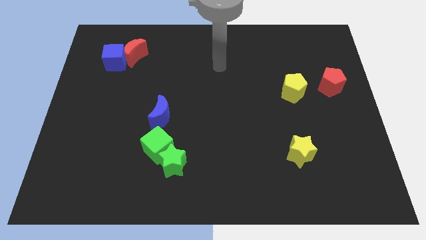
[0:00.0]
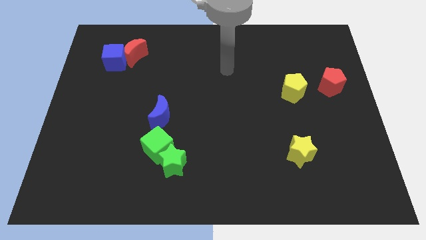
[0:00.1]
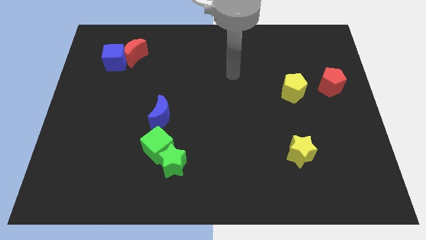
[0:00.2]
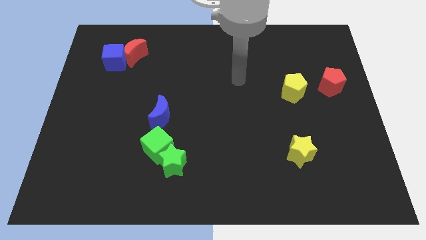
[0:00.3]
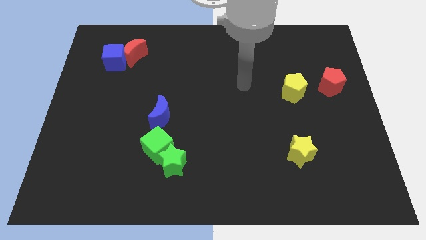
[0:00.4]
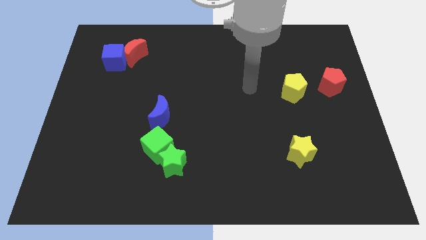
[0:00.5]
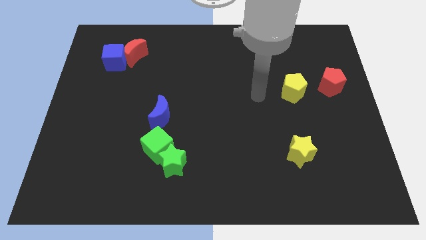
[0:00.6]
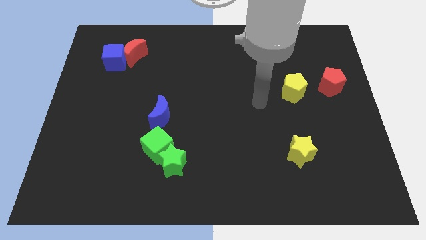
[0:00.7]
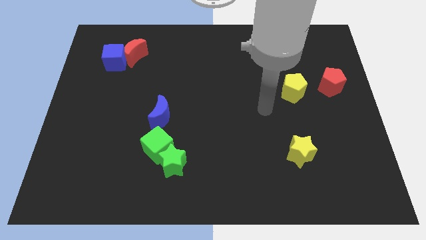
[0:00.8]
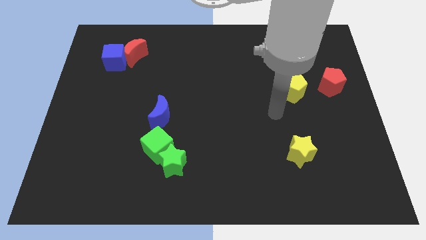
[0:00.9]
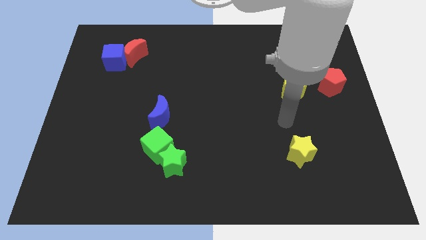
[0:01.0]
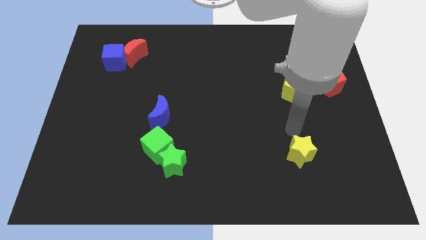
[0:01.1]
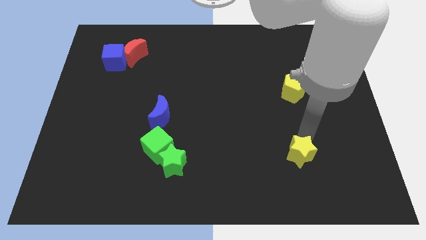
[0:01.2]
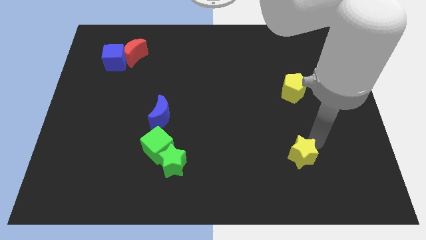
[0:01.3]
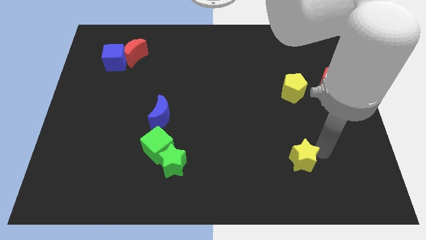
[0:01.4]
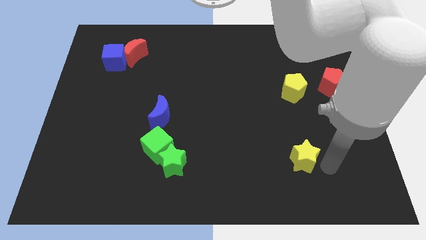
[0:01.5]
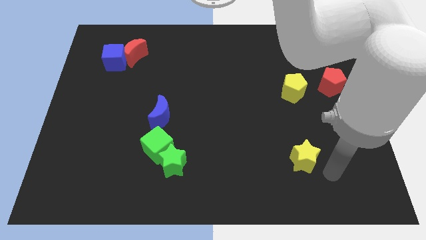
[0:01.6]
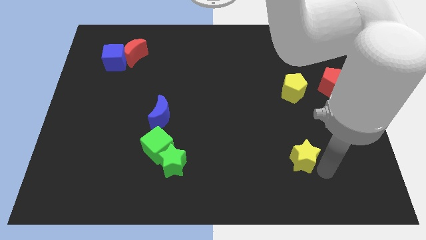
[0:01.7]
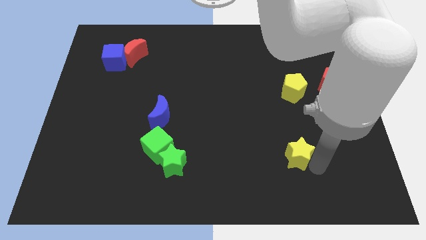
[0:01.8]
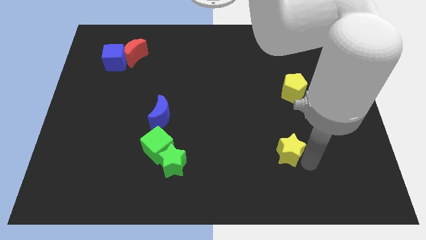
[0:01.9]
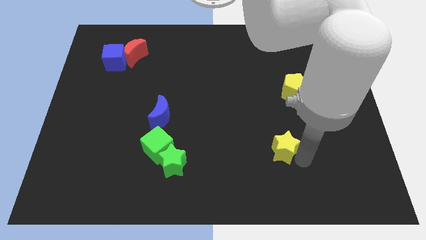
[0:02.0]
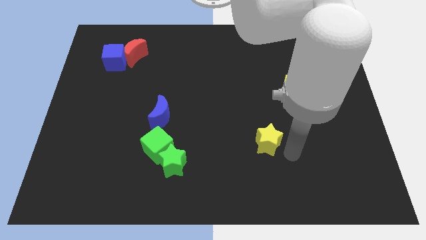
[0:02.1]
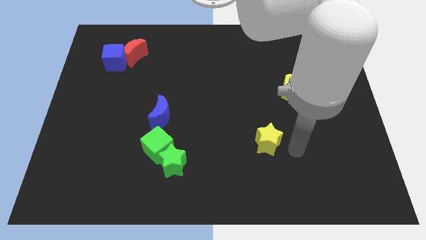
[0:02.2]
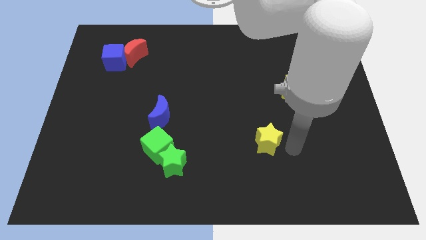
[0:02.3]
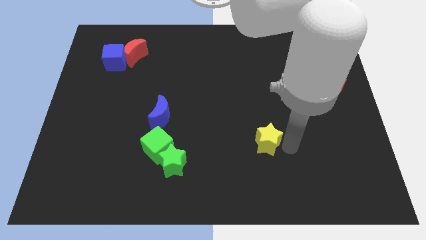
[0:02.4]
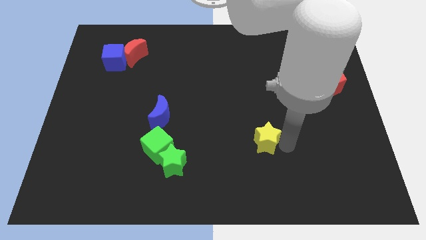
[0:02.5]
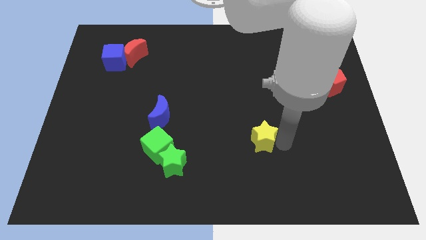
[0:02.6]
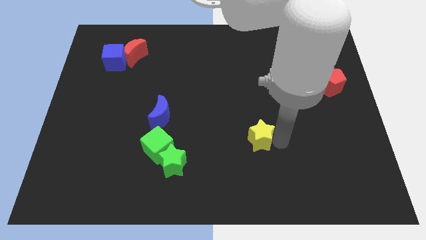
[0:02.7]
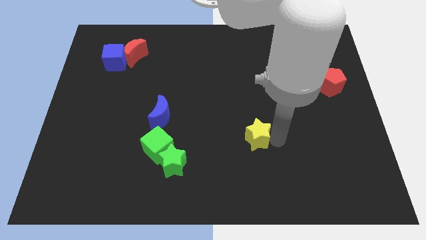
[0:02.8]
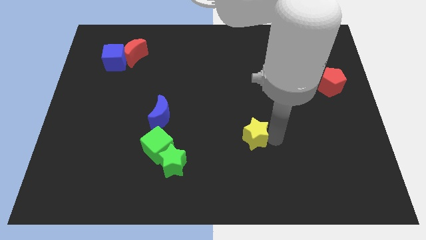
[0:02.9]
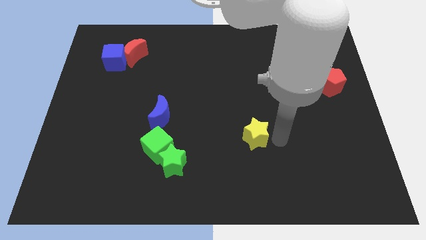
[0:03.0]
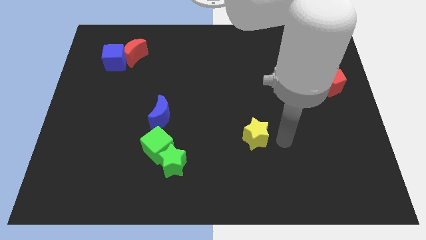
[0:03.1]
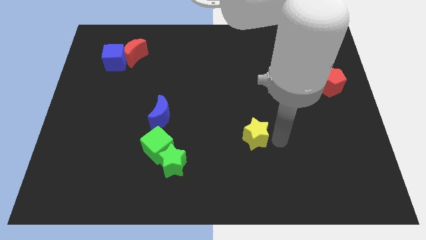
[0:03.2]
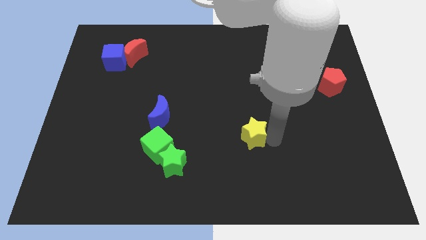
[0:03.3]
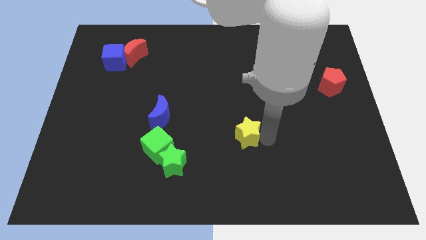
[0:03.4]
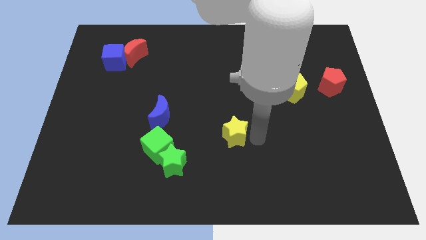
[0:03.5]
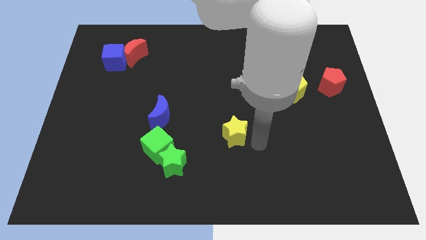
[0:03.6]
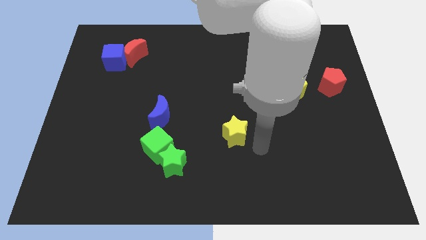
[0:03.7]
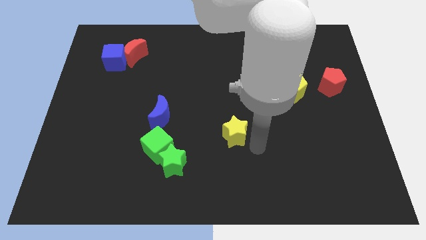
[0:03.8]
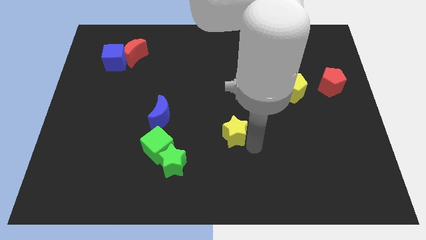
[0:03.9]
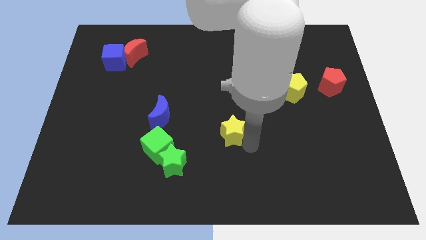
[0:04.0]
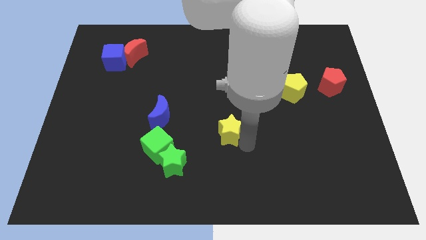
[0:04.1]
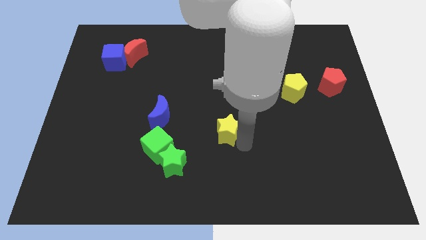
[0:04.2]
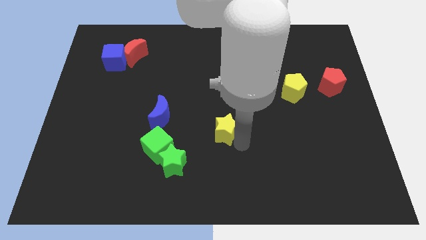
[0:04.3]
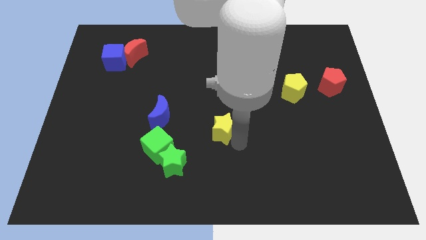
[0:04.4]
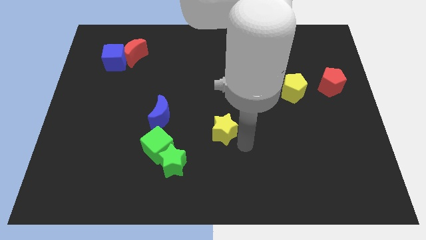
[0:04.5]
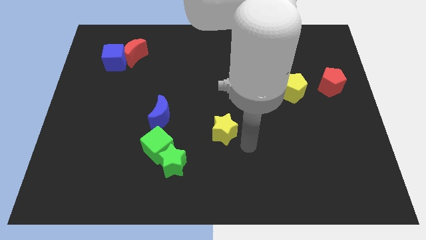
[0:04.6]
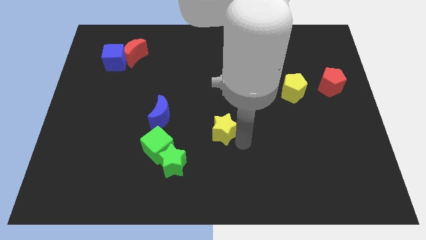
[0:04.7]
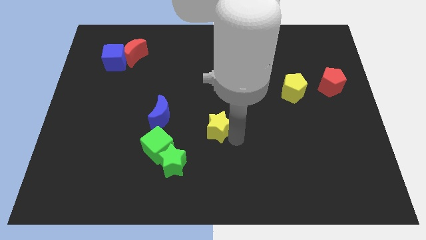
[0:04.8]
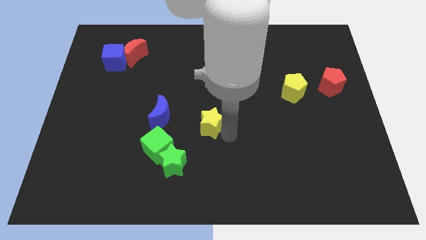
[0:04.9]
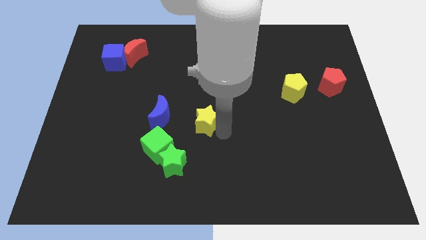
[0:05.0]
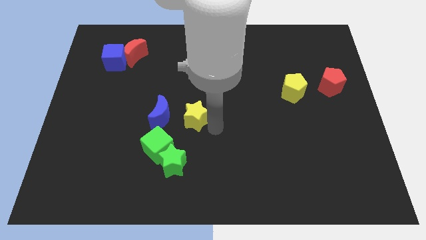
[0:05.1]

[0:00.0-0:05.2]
move the yellow star to the top side of the green star

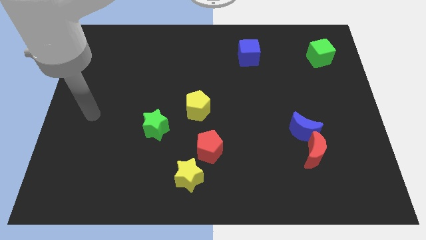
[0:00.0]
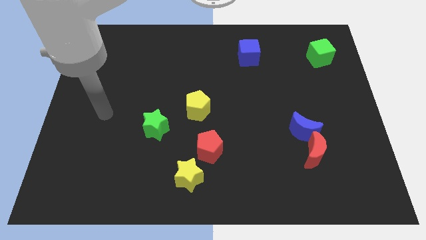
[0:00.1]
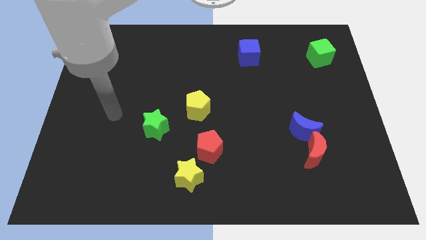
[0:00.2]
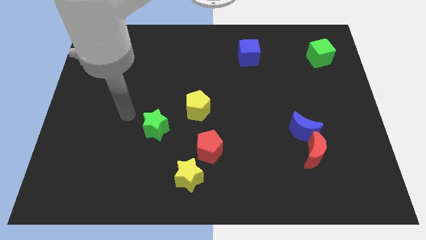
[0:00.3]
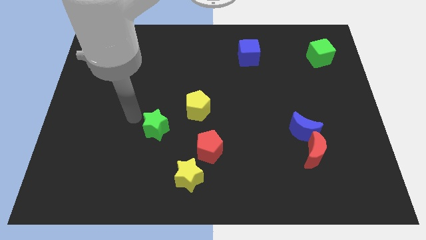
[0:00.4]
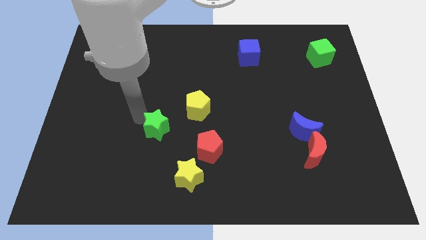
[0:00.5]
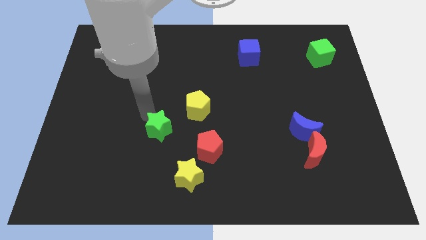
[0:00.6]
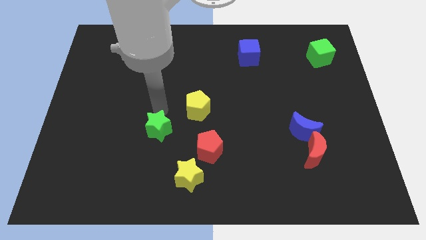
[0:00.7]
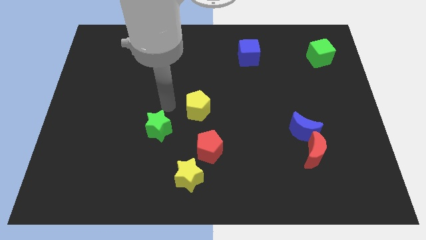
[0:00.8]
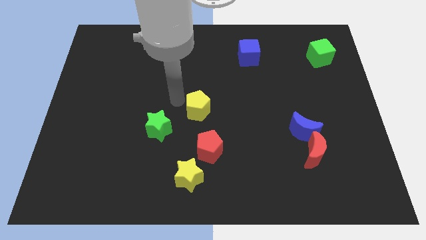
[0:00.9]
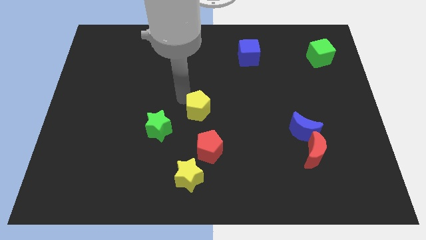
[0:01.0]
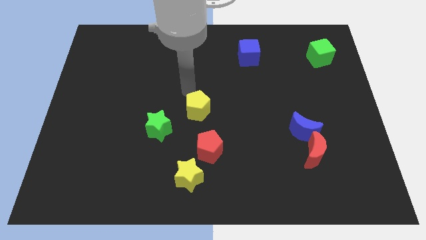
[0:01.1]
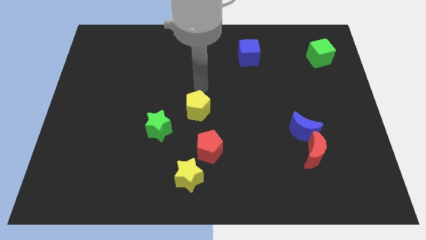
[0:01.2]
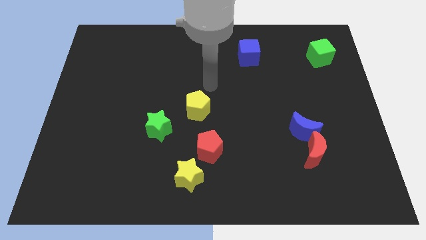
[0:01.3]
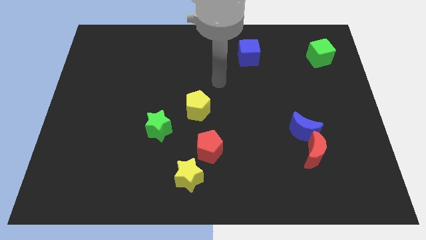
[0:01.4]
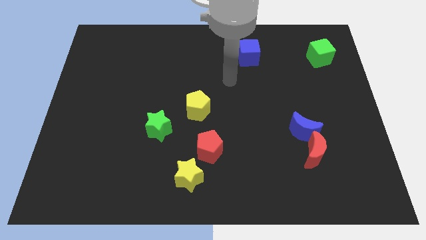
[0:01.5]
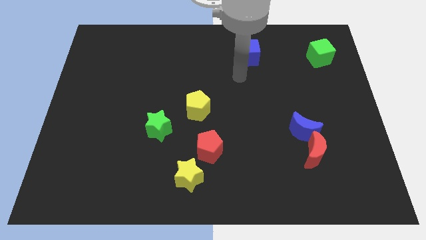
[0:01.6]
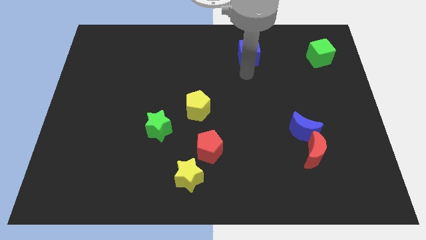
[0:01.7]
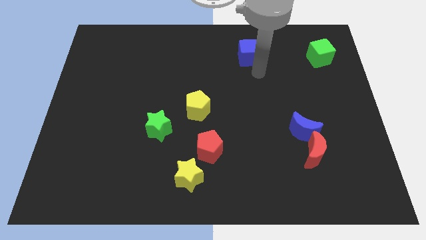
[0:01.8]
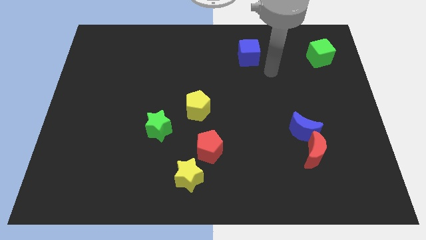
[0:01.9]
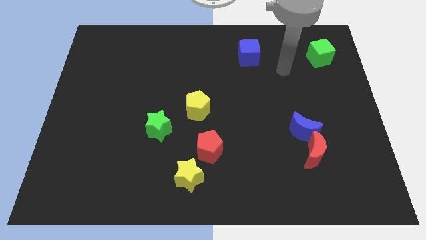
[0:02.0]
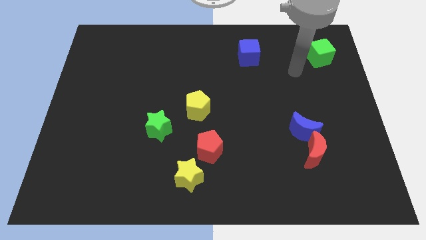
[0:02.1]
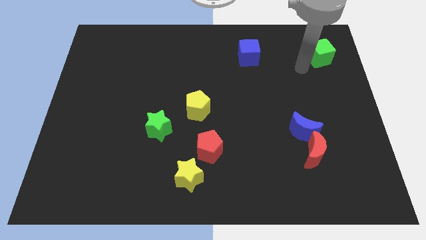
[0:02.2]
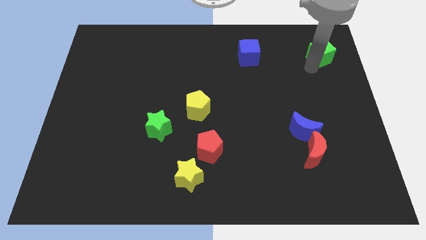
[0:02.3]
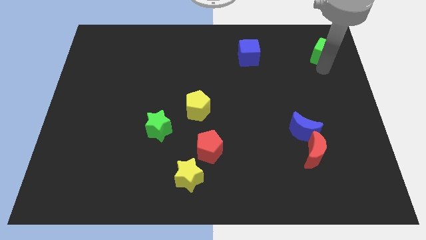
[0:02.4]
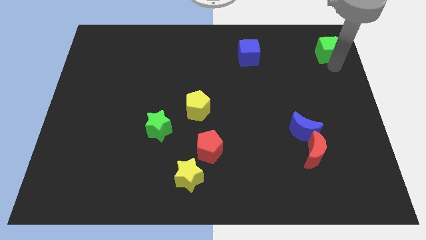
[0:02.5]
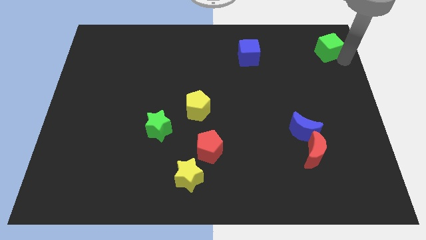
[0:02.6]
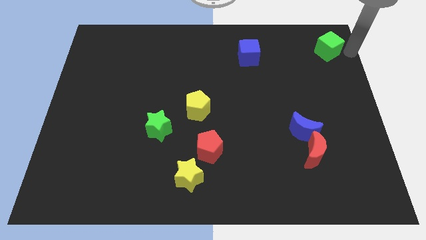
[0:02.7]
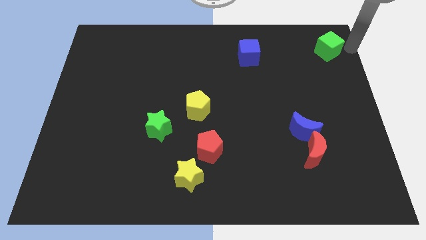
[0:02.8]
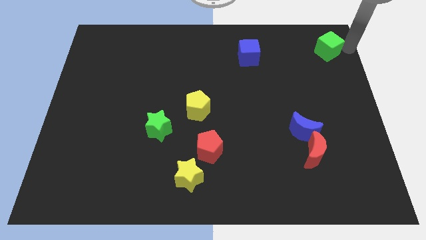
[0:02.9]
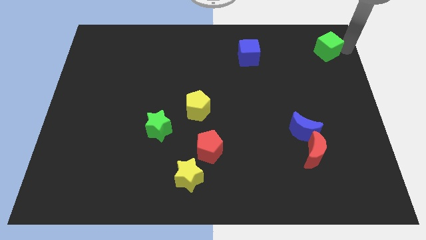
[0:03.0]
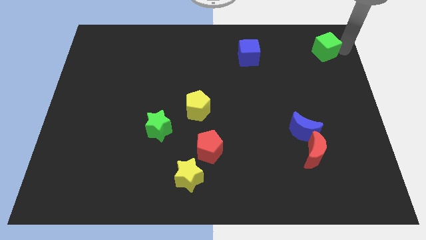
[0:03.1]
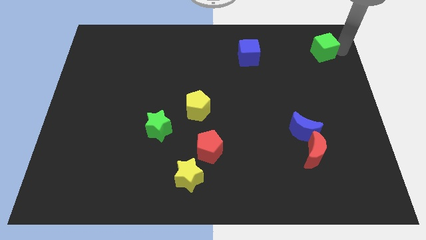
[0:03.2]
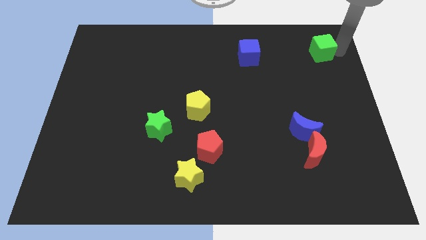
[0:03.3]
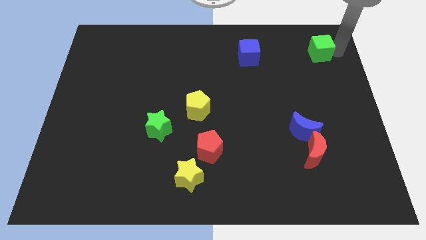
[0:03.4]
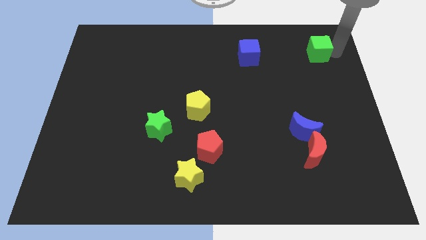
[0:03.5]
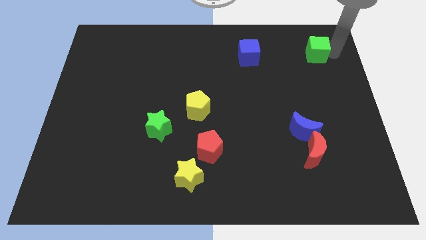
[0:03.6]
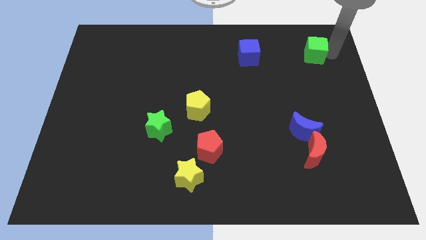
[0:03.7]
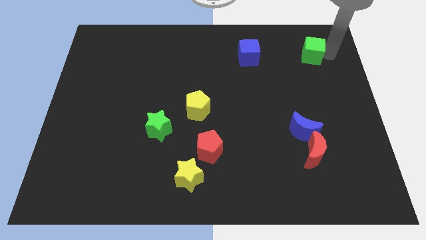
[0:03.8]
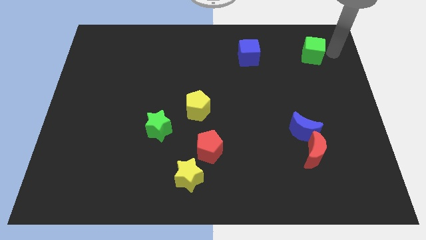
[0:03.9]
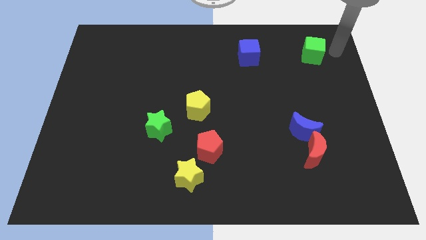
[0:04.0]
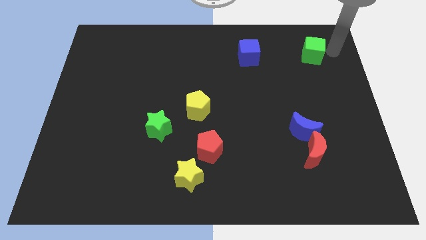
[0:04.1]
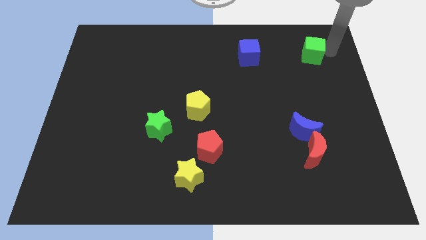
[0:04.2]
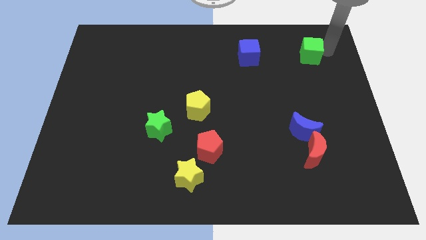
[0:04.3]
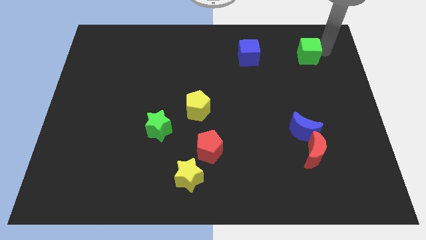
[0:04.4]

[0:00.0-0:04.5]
put the green cube right of the blue cube
